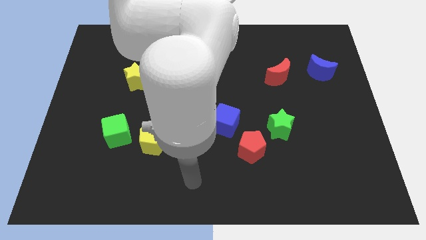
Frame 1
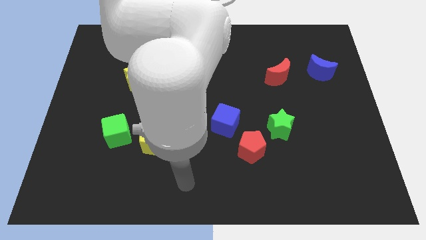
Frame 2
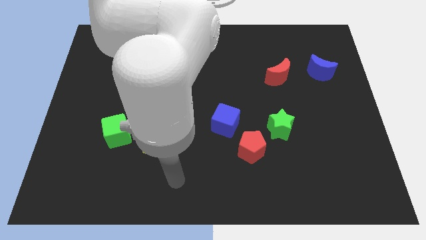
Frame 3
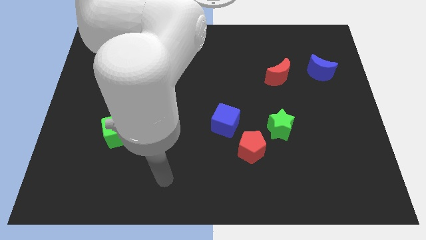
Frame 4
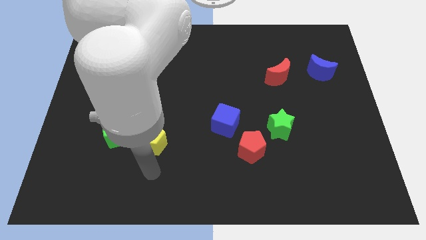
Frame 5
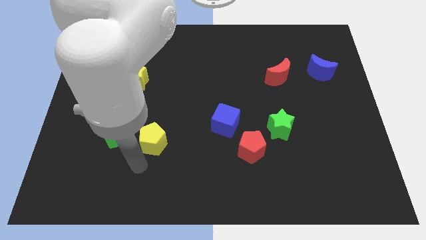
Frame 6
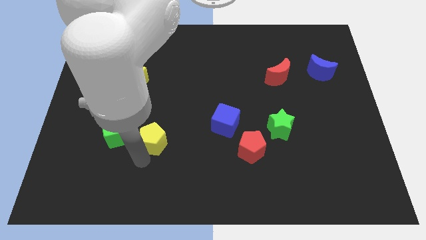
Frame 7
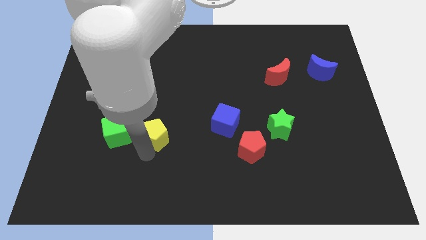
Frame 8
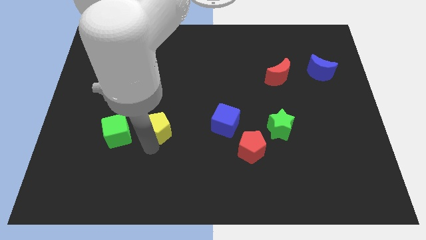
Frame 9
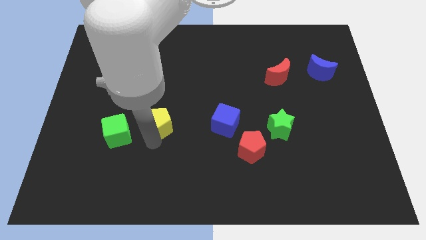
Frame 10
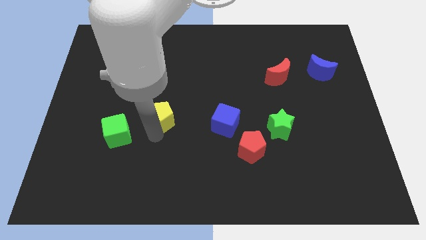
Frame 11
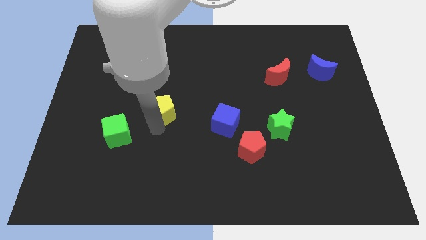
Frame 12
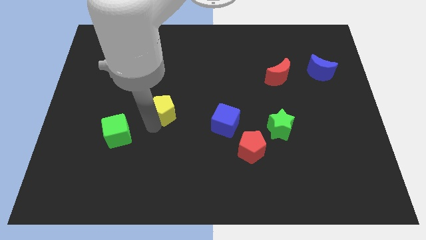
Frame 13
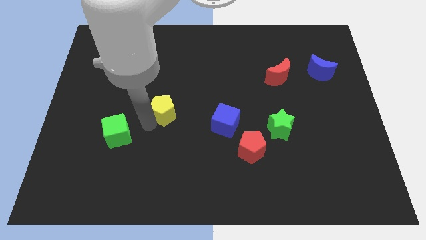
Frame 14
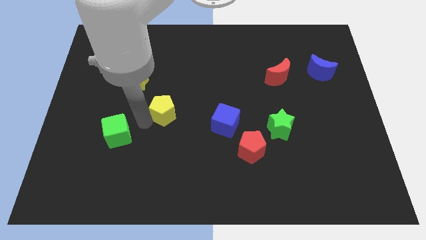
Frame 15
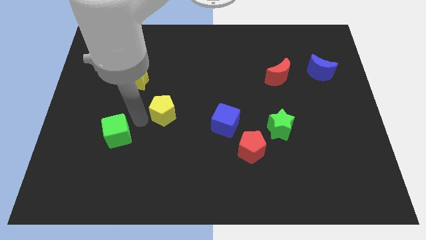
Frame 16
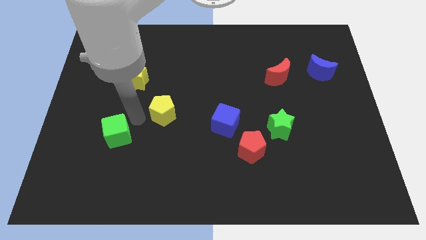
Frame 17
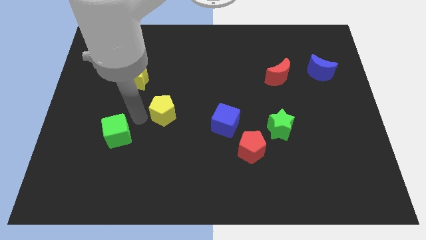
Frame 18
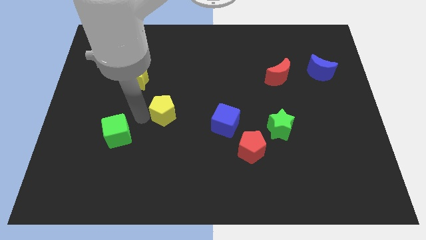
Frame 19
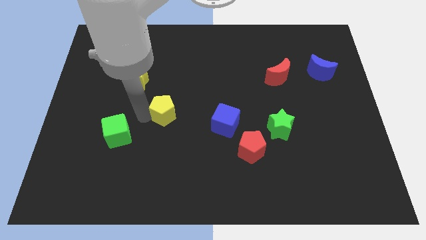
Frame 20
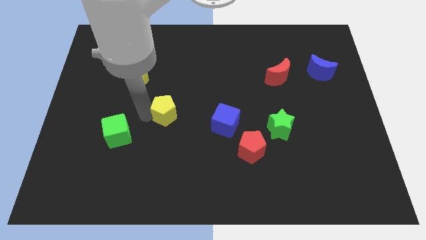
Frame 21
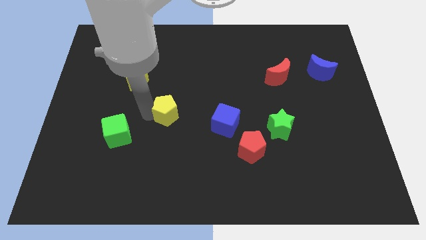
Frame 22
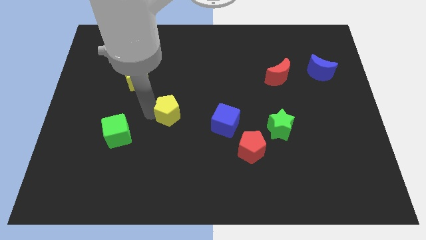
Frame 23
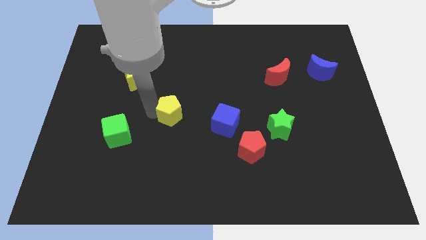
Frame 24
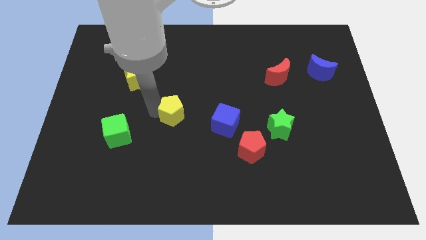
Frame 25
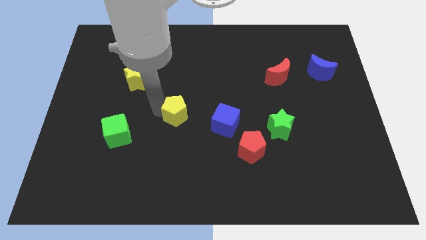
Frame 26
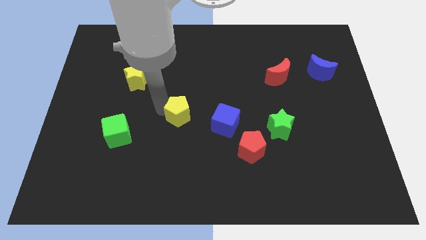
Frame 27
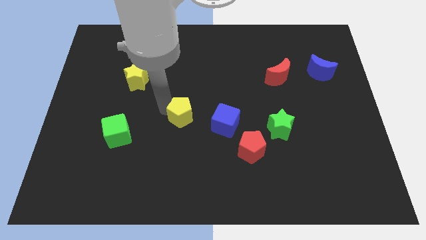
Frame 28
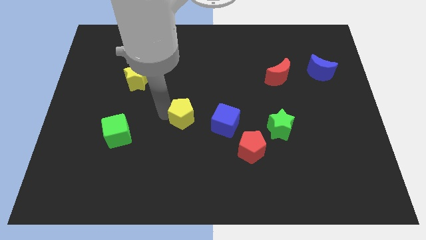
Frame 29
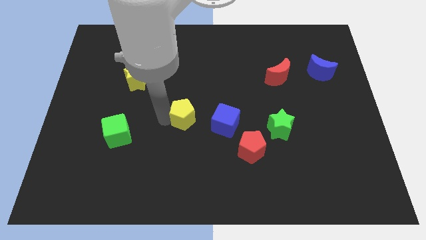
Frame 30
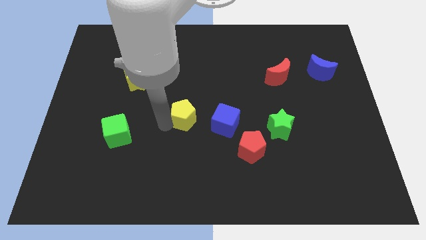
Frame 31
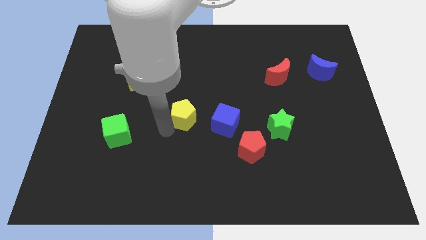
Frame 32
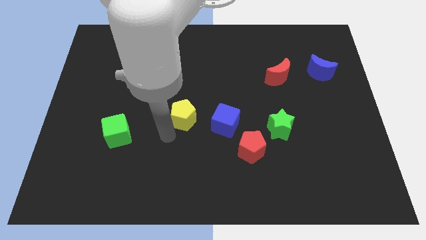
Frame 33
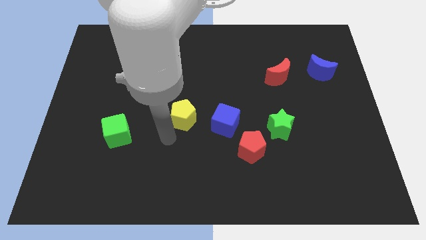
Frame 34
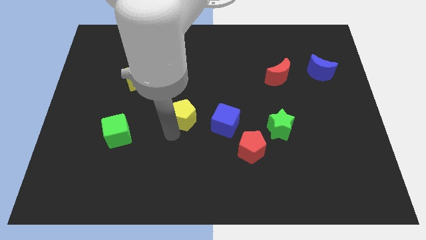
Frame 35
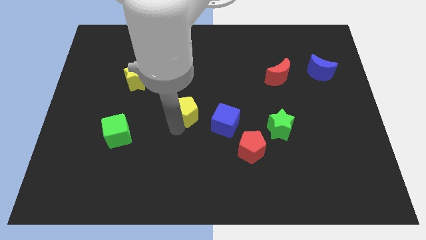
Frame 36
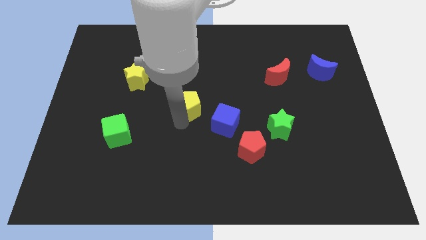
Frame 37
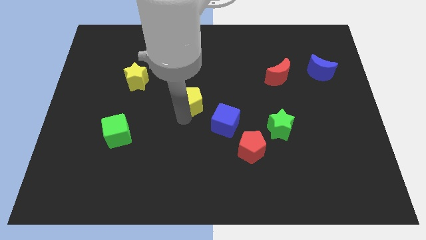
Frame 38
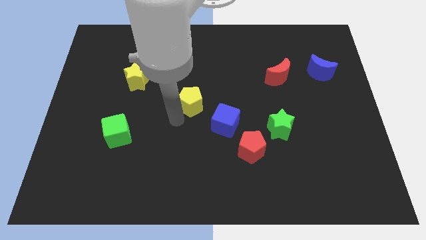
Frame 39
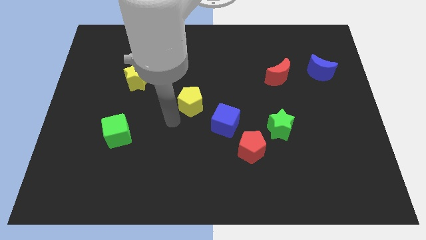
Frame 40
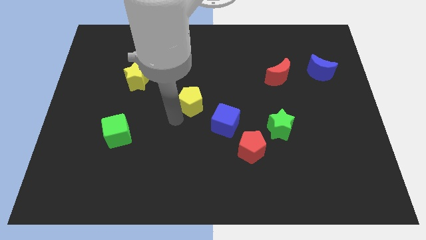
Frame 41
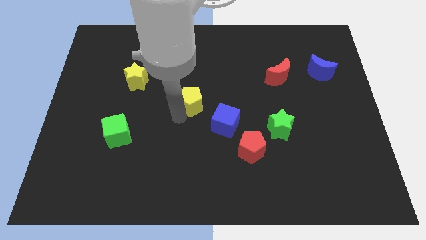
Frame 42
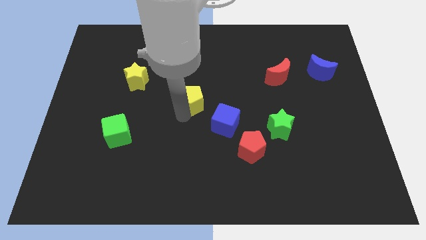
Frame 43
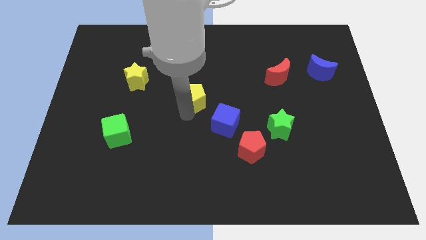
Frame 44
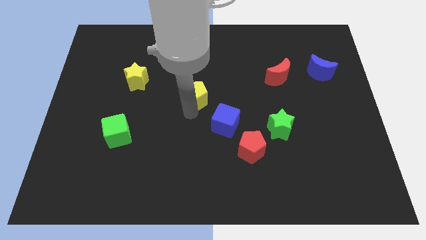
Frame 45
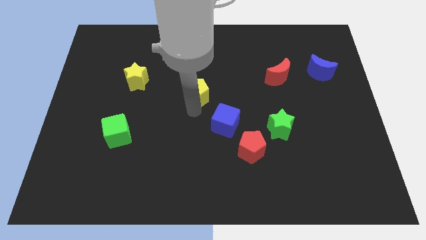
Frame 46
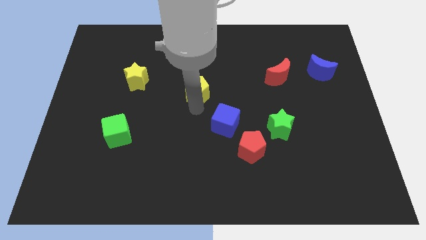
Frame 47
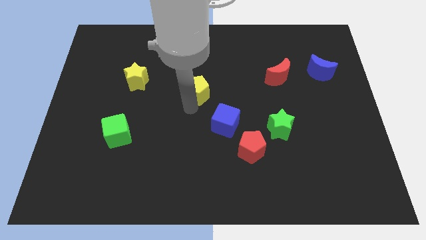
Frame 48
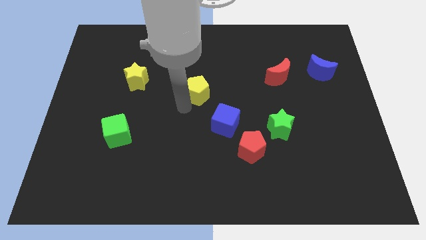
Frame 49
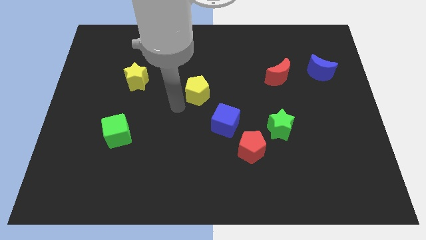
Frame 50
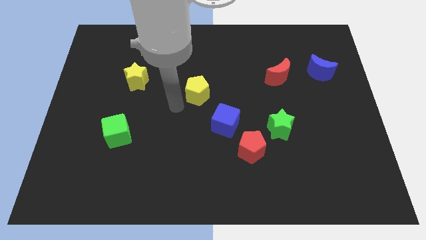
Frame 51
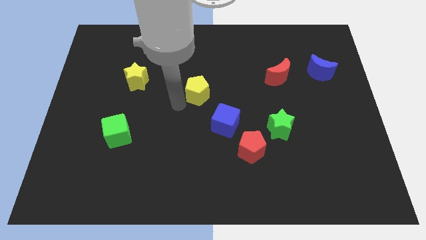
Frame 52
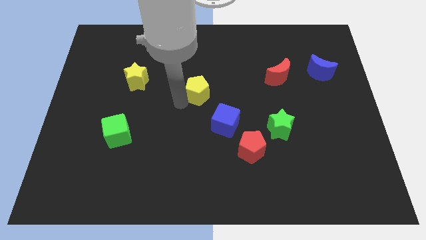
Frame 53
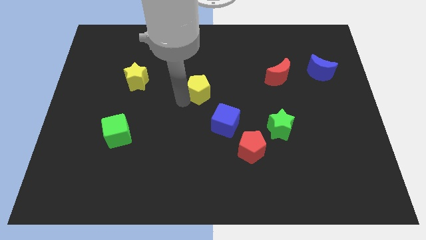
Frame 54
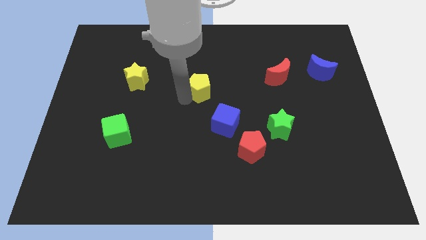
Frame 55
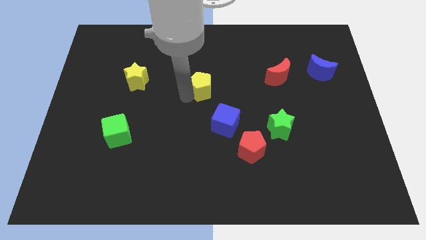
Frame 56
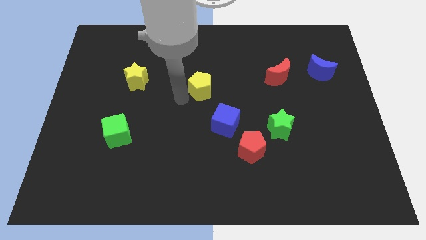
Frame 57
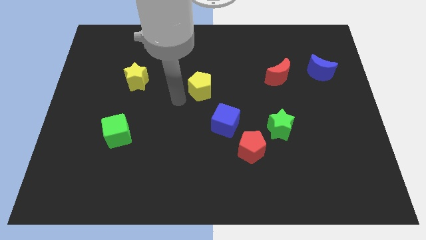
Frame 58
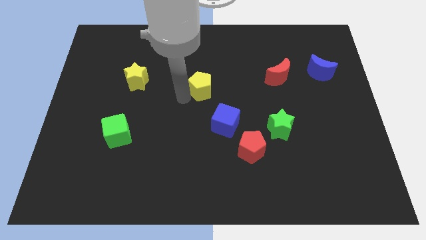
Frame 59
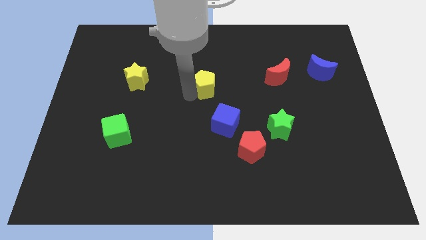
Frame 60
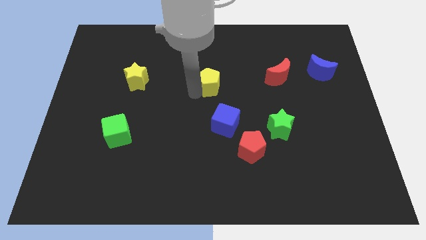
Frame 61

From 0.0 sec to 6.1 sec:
slide the yellow pentagon diagonally upwards and to the right

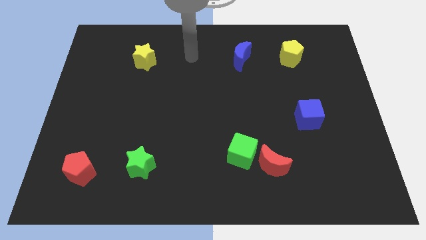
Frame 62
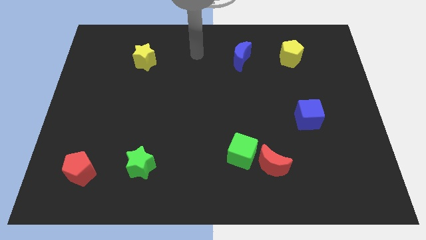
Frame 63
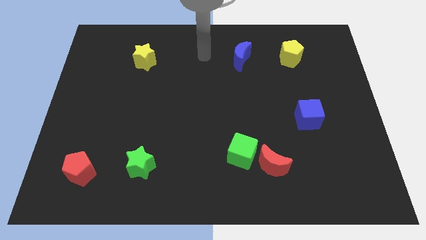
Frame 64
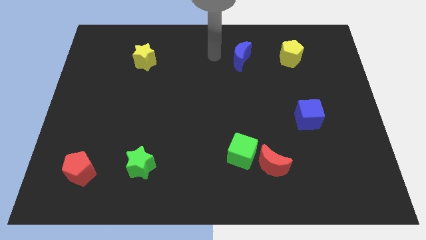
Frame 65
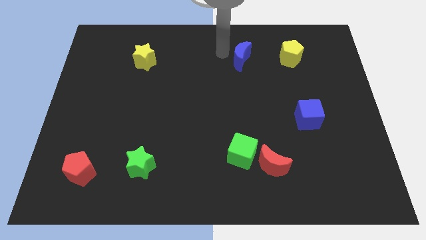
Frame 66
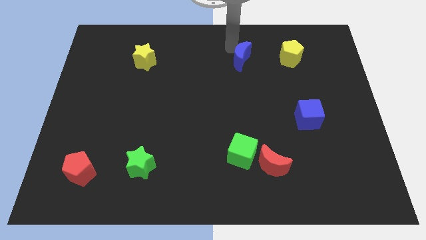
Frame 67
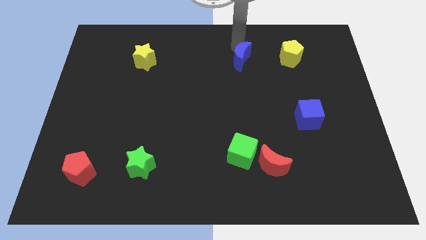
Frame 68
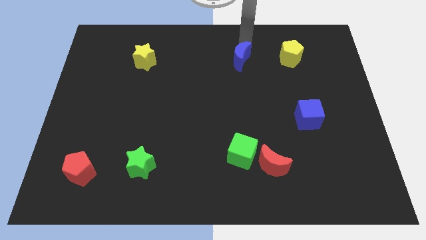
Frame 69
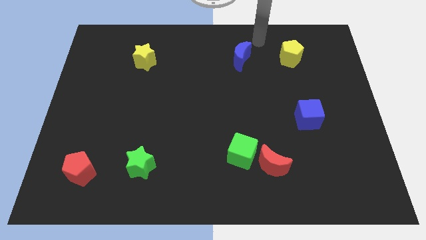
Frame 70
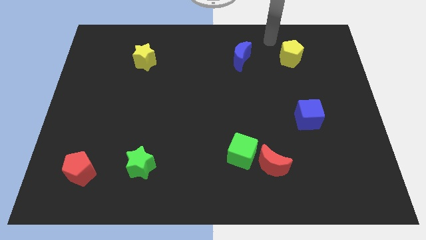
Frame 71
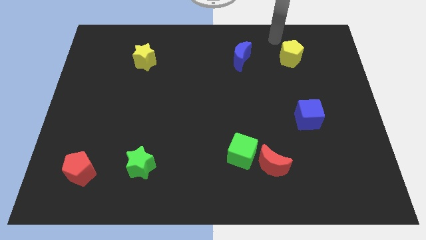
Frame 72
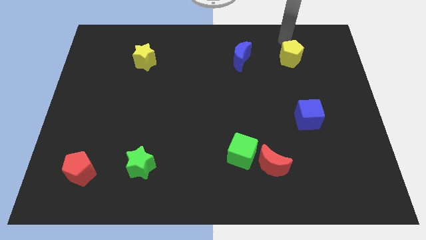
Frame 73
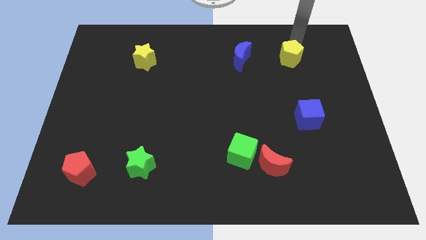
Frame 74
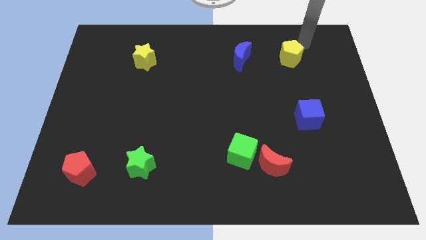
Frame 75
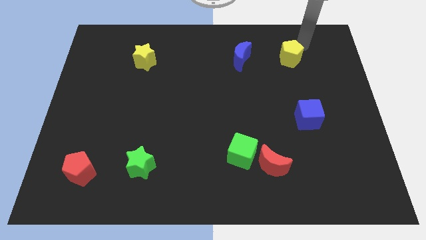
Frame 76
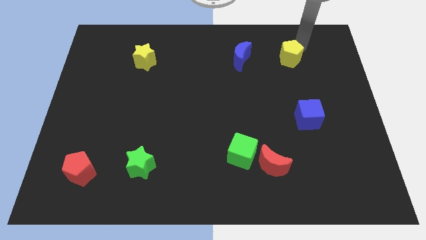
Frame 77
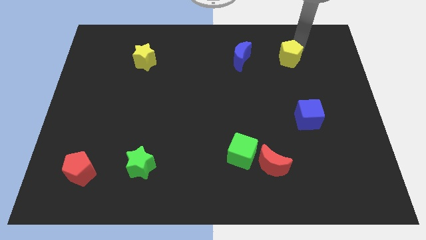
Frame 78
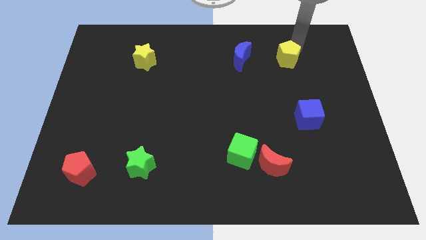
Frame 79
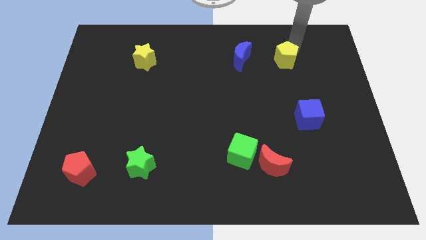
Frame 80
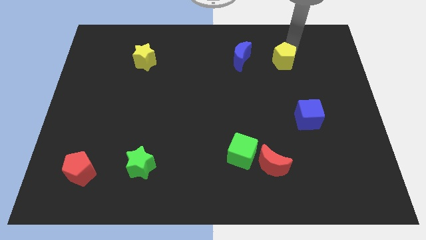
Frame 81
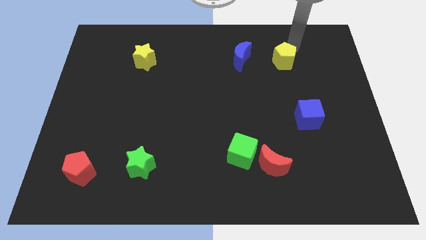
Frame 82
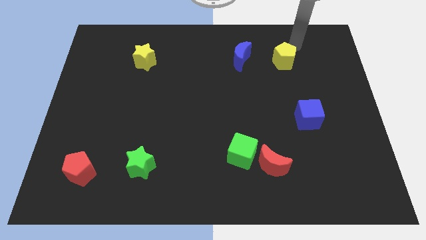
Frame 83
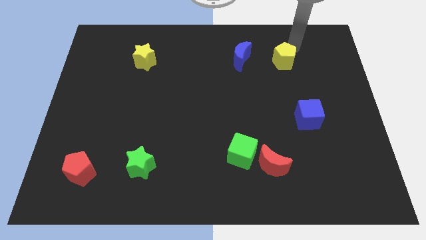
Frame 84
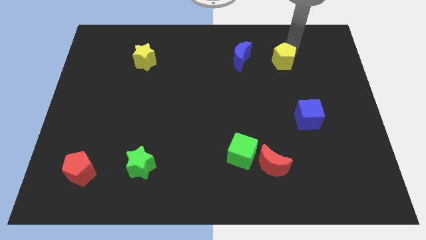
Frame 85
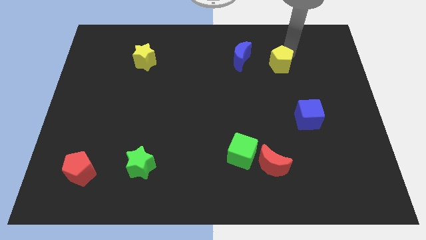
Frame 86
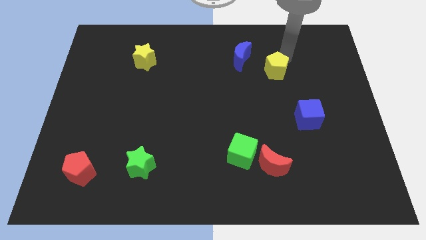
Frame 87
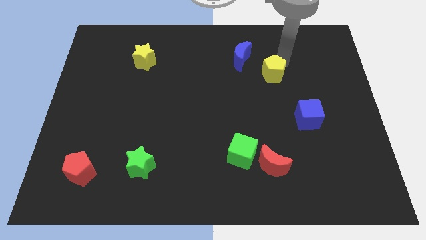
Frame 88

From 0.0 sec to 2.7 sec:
slightly push the yellow pentagon downwards and to the left diagonally
